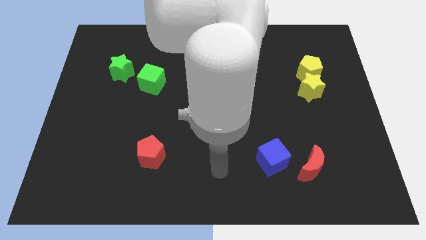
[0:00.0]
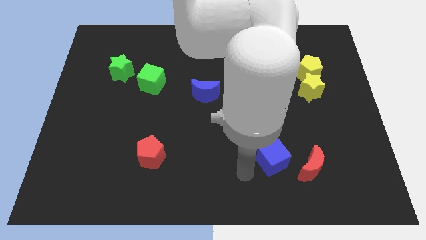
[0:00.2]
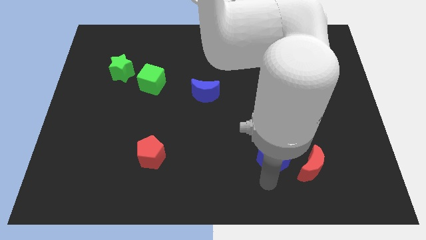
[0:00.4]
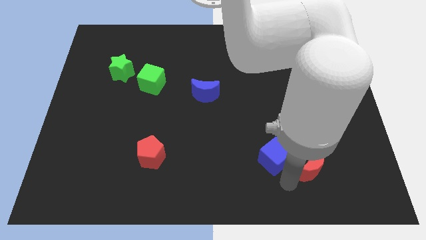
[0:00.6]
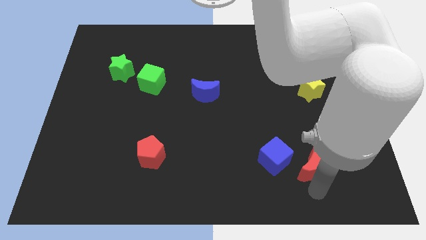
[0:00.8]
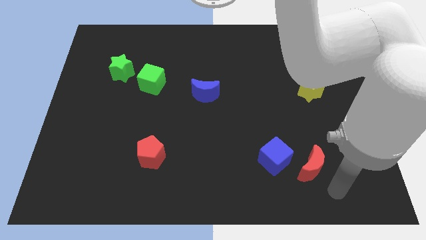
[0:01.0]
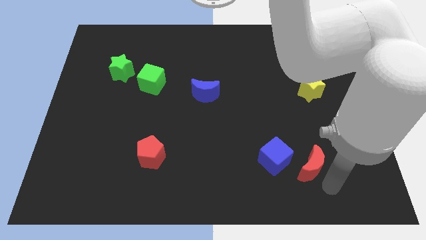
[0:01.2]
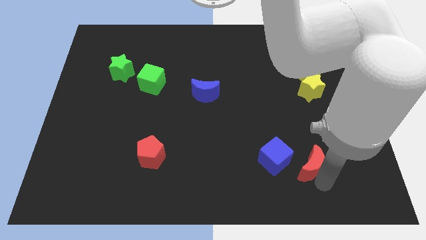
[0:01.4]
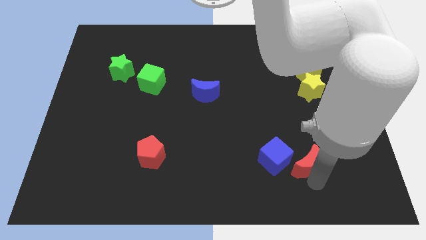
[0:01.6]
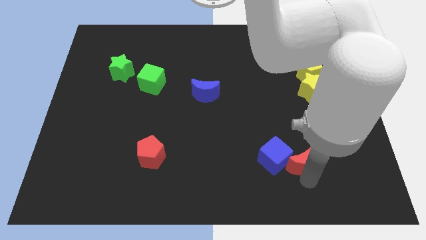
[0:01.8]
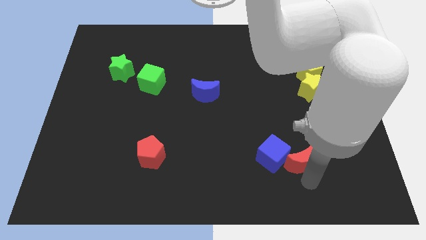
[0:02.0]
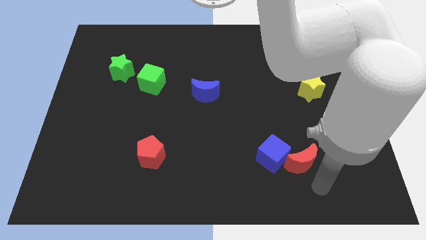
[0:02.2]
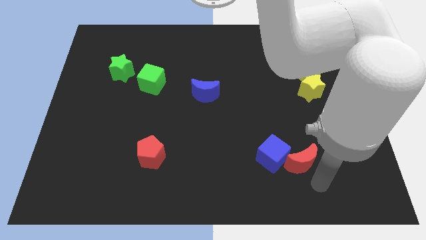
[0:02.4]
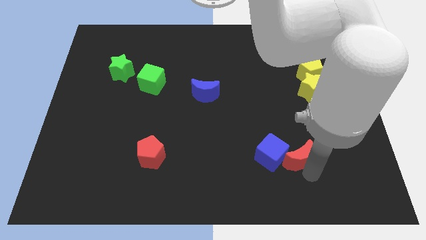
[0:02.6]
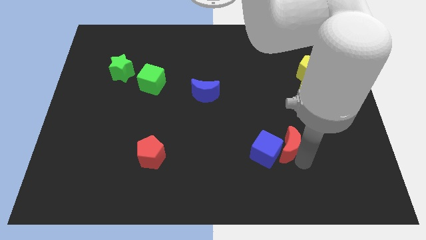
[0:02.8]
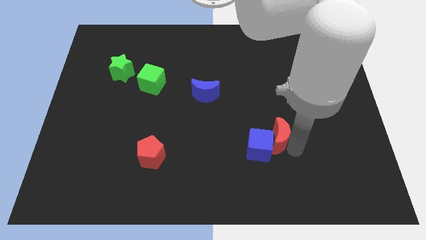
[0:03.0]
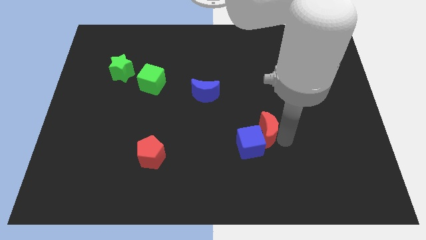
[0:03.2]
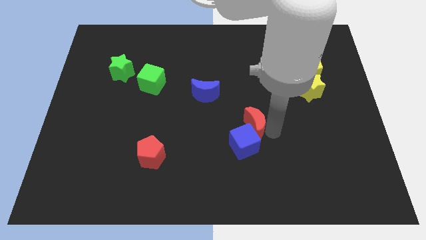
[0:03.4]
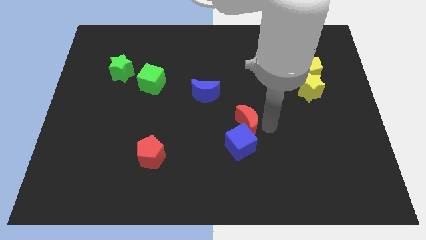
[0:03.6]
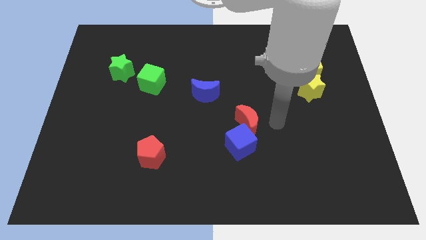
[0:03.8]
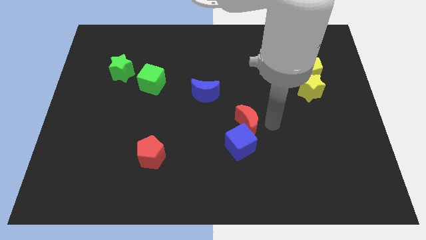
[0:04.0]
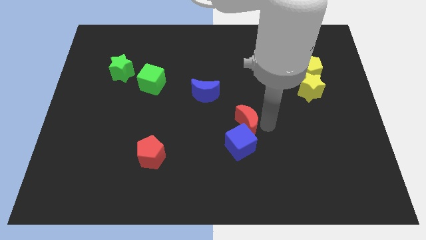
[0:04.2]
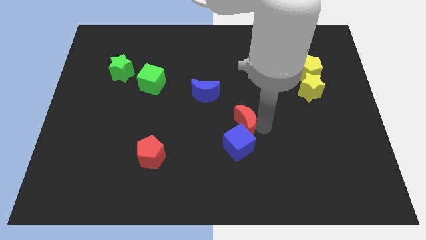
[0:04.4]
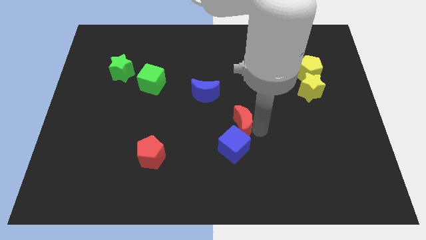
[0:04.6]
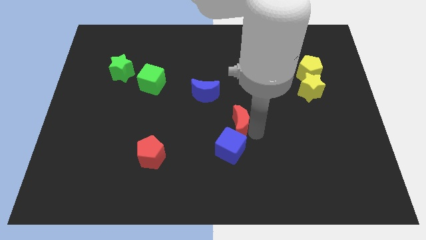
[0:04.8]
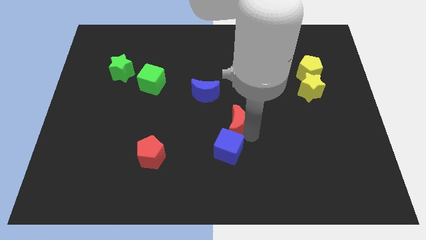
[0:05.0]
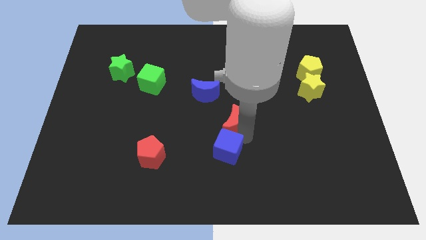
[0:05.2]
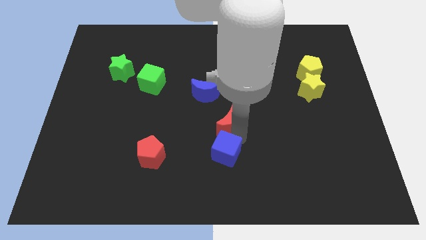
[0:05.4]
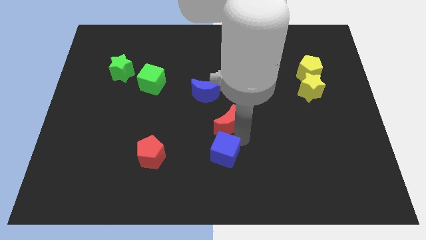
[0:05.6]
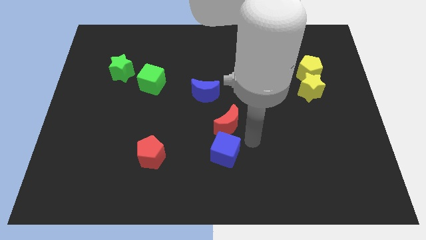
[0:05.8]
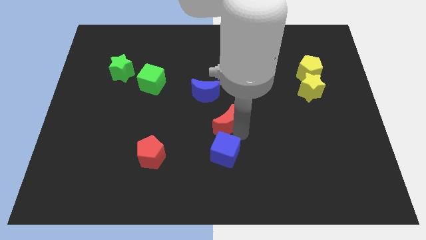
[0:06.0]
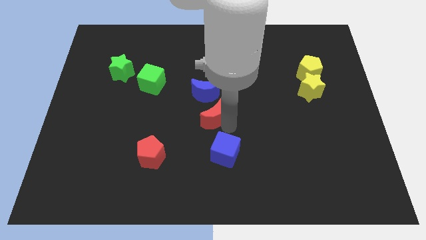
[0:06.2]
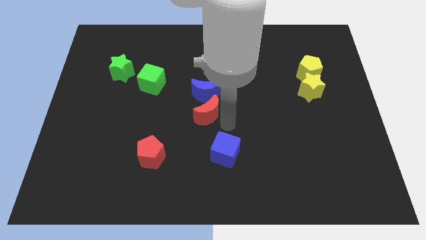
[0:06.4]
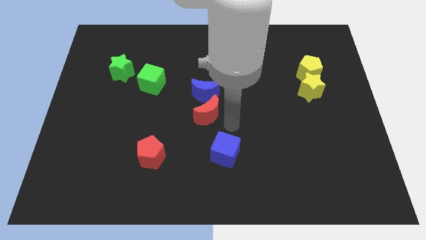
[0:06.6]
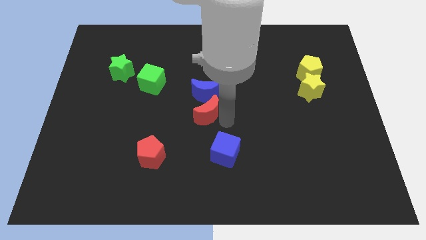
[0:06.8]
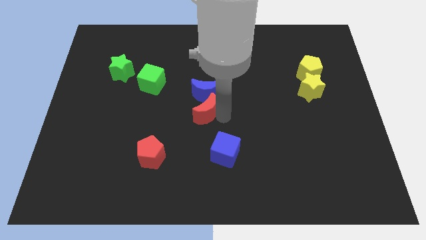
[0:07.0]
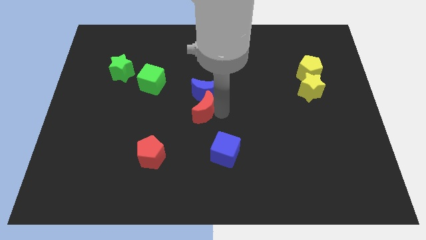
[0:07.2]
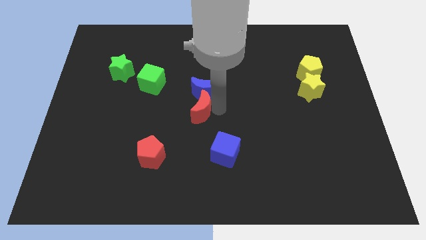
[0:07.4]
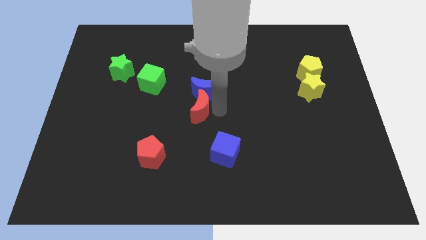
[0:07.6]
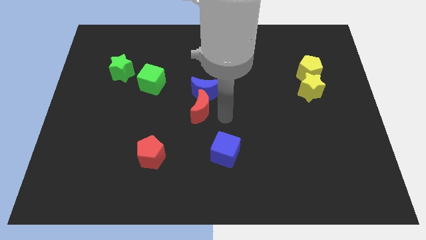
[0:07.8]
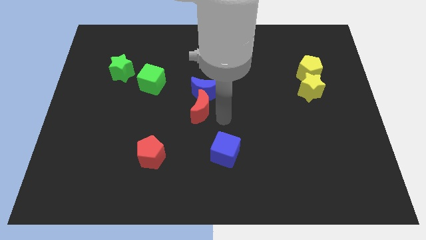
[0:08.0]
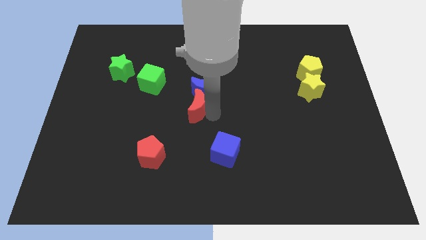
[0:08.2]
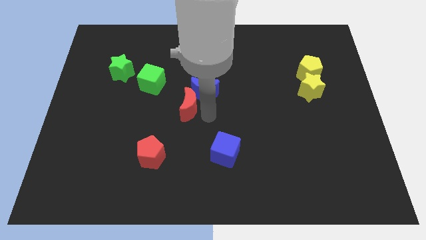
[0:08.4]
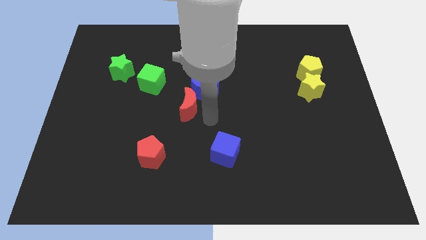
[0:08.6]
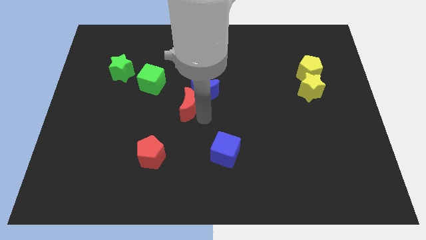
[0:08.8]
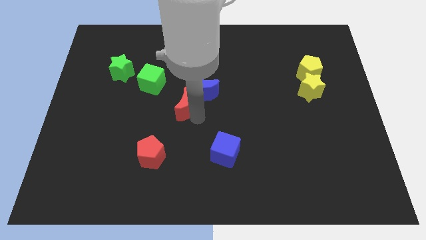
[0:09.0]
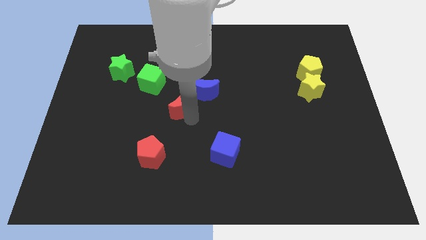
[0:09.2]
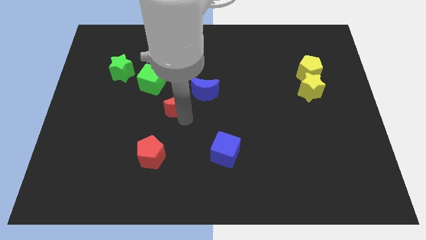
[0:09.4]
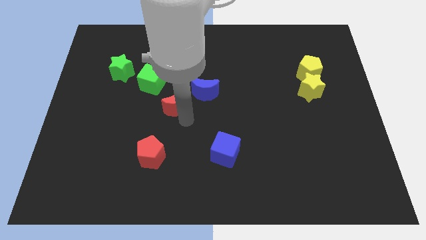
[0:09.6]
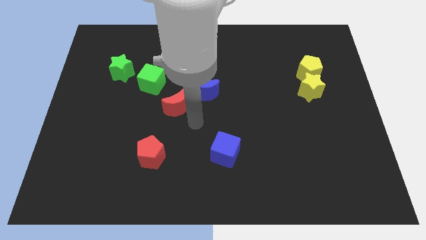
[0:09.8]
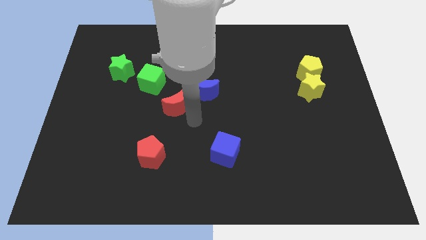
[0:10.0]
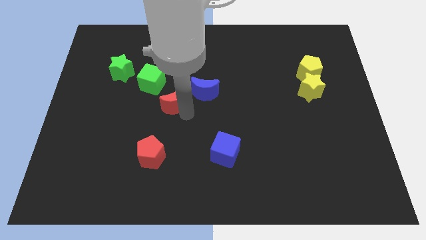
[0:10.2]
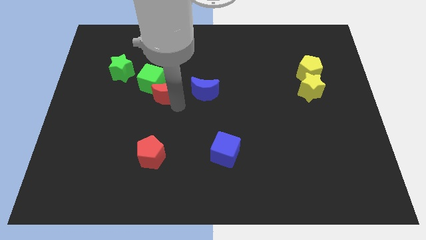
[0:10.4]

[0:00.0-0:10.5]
put the red moon close to the green cube

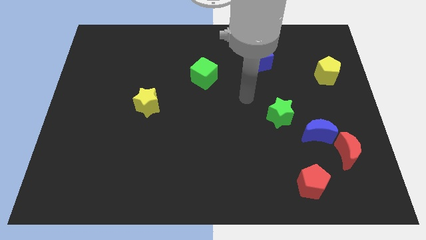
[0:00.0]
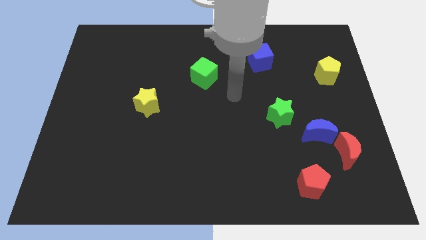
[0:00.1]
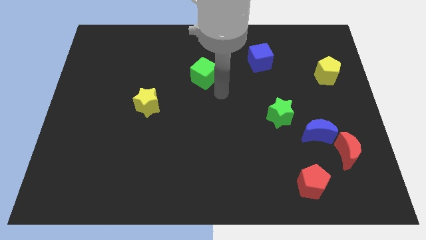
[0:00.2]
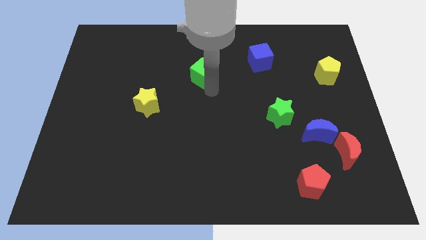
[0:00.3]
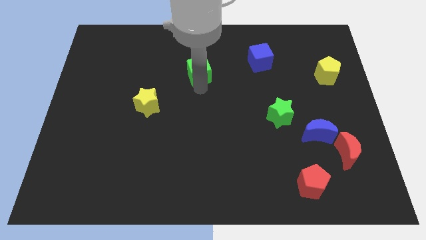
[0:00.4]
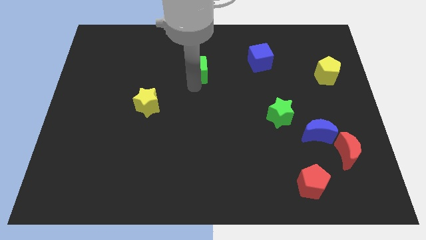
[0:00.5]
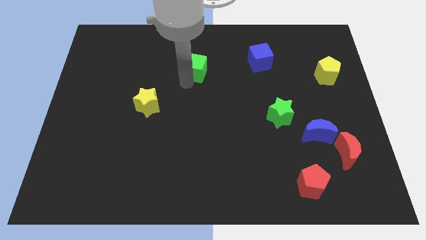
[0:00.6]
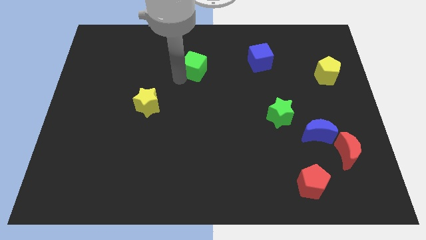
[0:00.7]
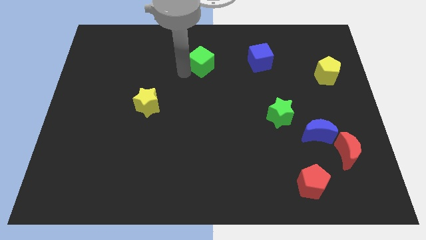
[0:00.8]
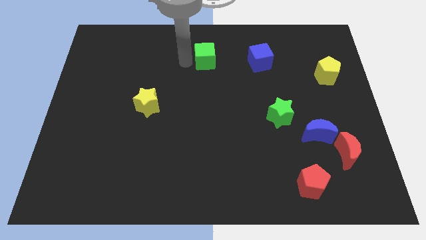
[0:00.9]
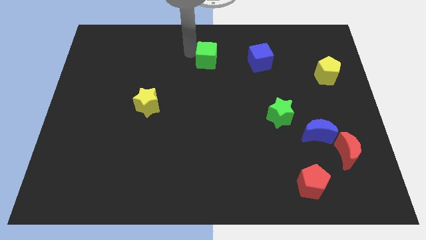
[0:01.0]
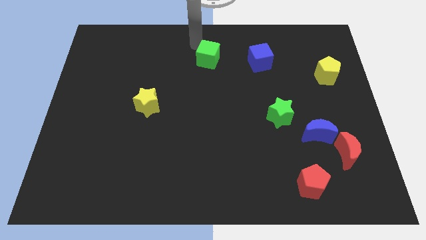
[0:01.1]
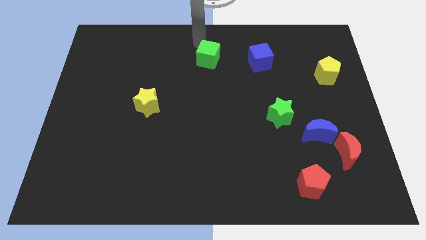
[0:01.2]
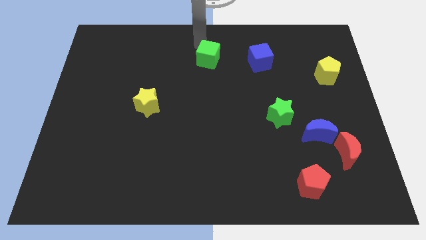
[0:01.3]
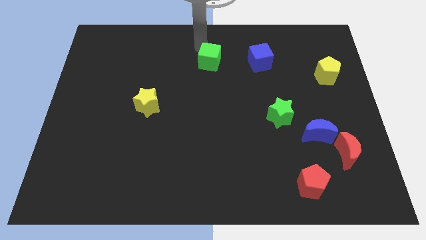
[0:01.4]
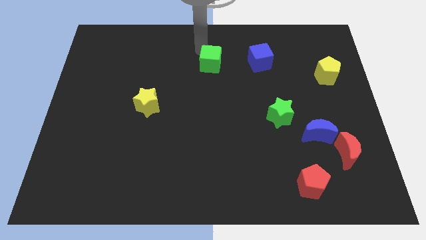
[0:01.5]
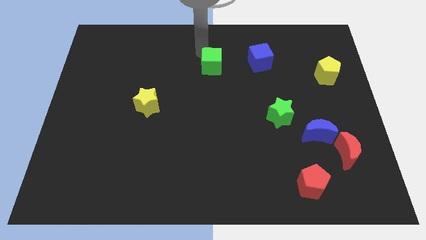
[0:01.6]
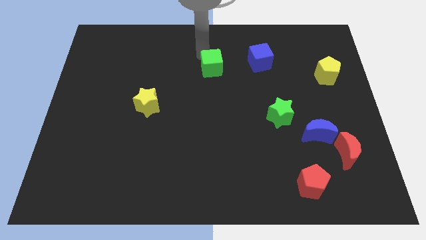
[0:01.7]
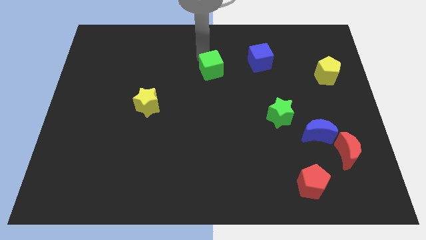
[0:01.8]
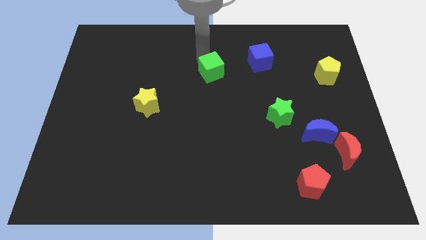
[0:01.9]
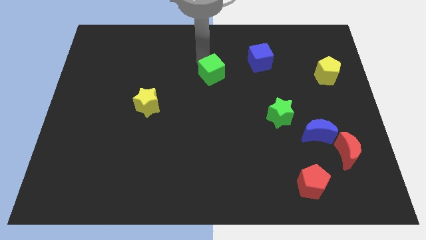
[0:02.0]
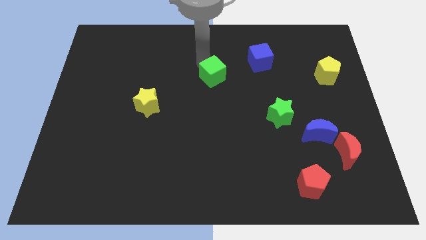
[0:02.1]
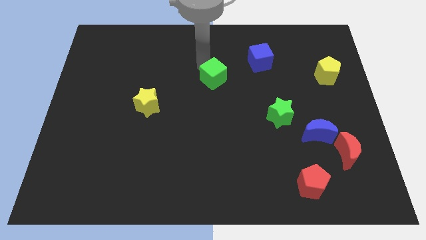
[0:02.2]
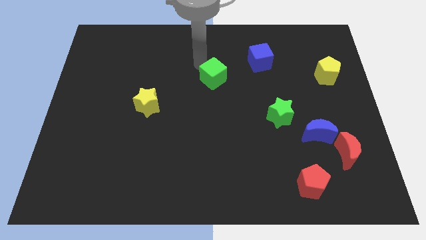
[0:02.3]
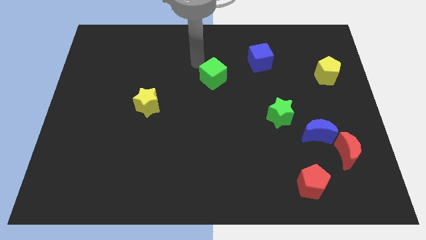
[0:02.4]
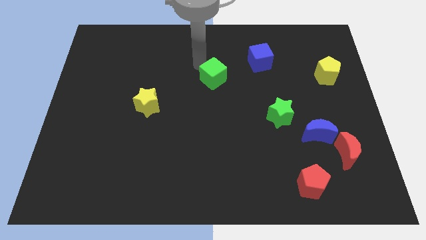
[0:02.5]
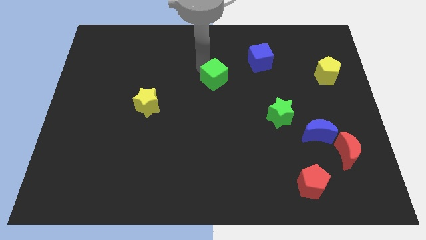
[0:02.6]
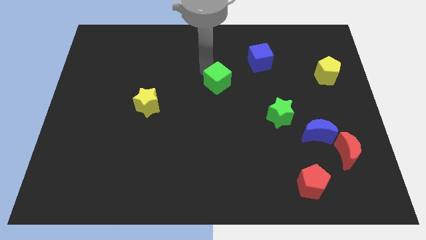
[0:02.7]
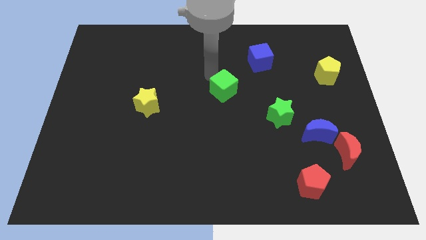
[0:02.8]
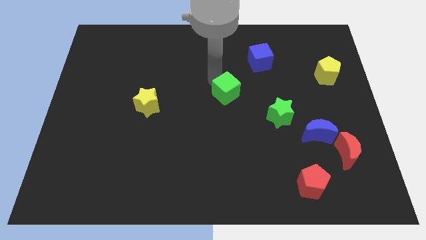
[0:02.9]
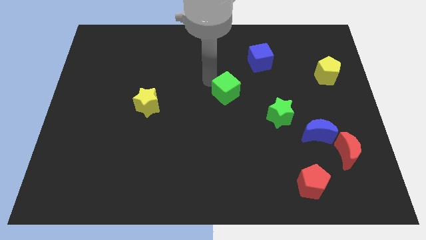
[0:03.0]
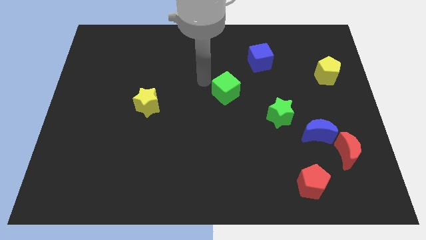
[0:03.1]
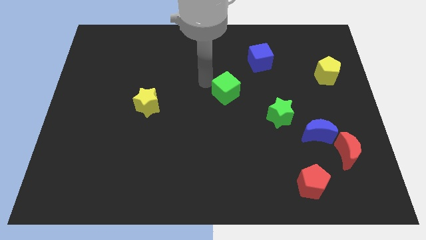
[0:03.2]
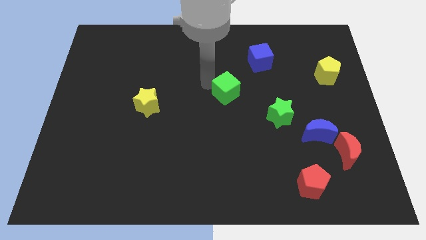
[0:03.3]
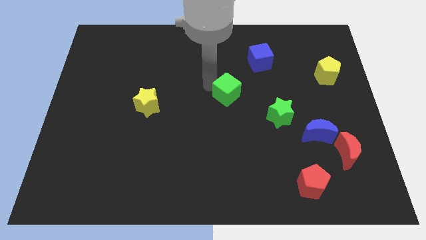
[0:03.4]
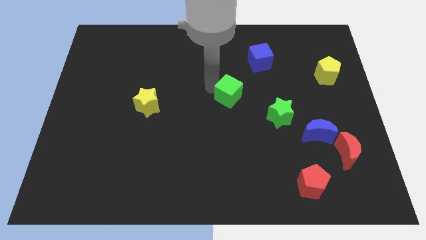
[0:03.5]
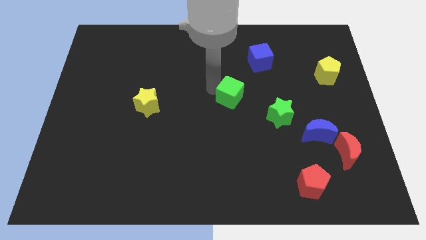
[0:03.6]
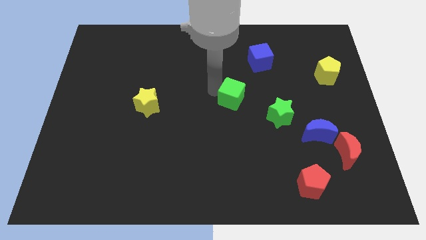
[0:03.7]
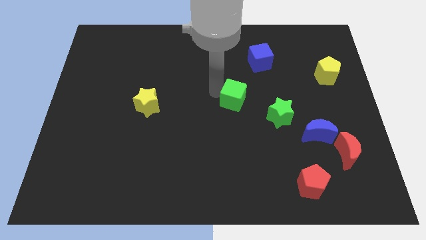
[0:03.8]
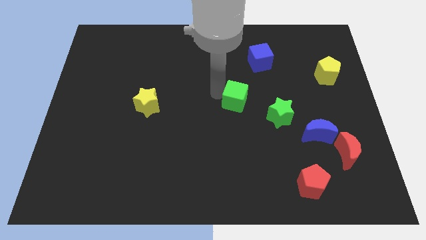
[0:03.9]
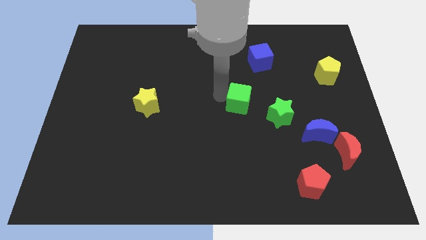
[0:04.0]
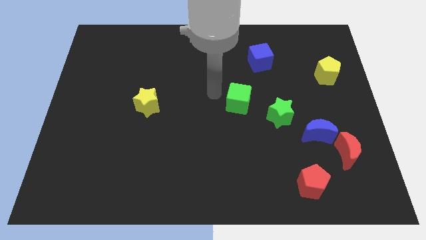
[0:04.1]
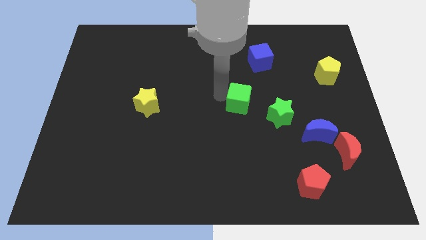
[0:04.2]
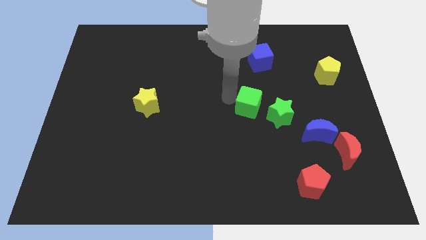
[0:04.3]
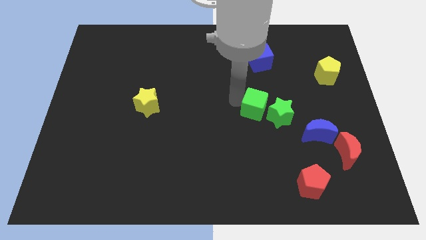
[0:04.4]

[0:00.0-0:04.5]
move the green cube to the green star
